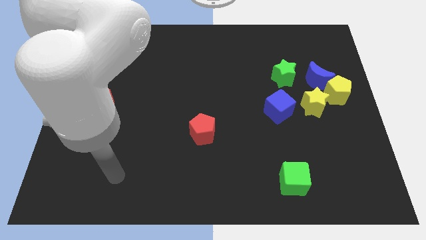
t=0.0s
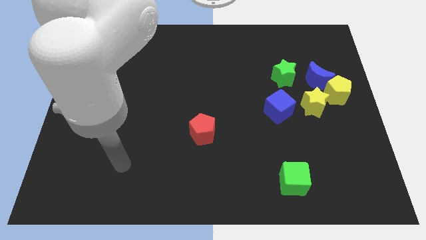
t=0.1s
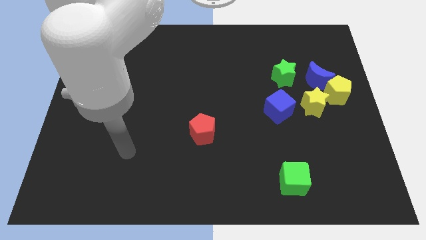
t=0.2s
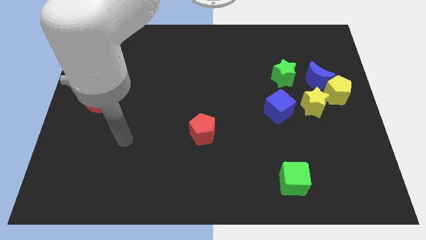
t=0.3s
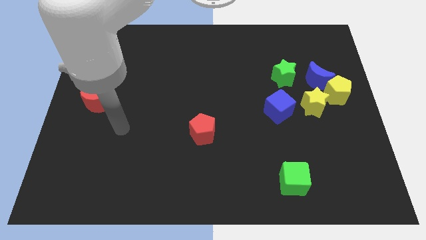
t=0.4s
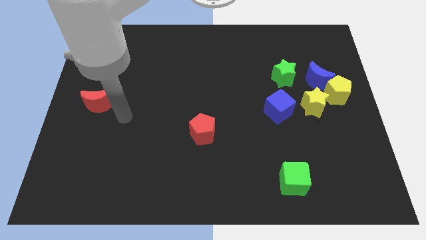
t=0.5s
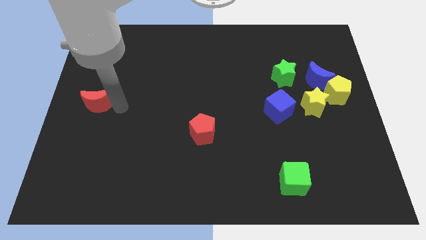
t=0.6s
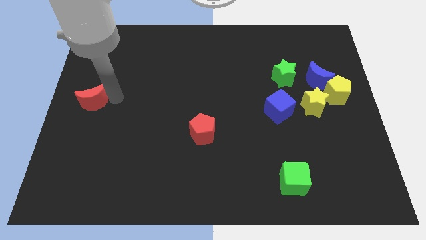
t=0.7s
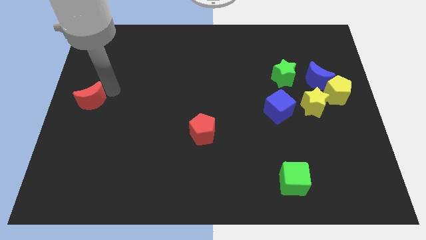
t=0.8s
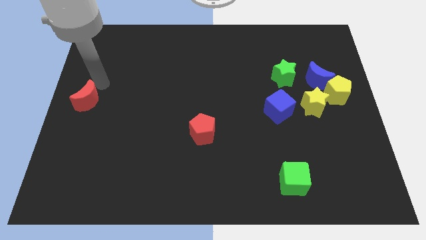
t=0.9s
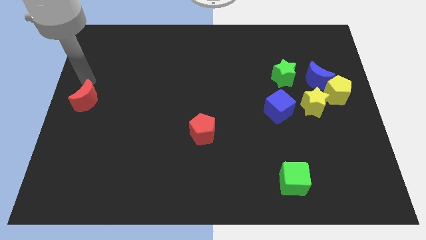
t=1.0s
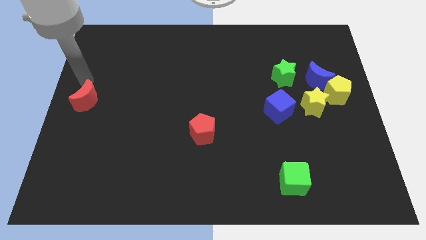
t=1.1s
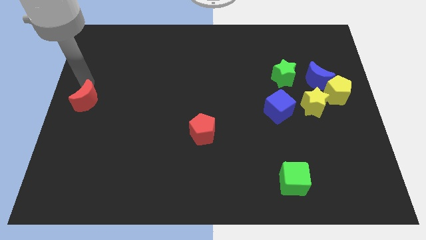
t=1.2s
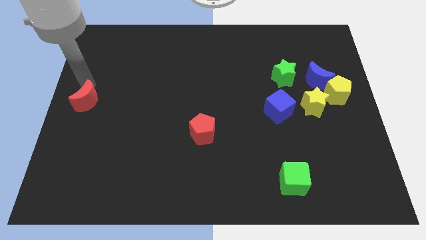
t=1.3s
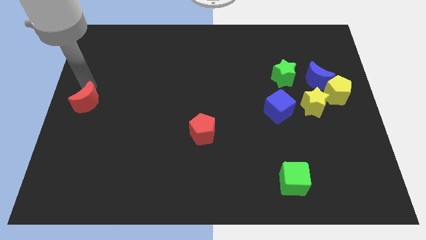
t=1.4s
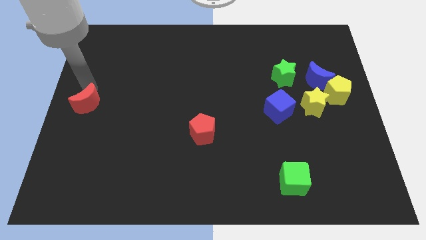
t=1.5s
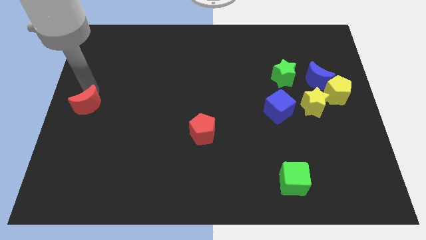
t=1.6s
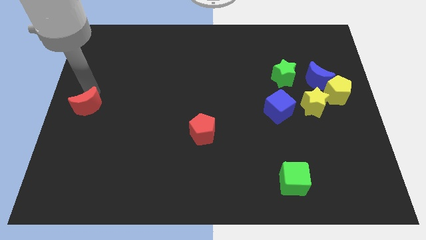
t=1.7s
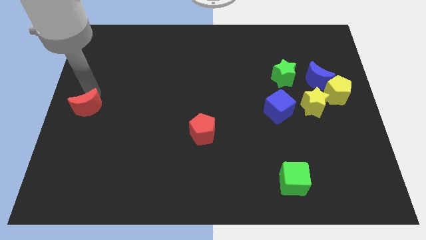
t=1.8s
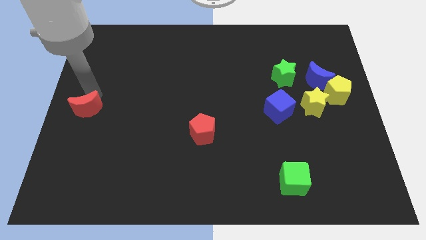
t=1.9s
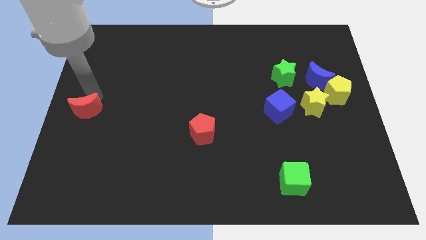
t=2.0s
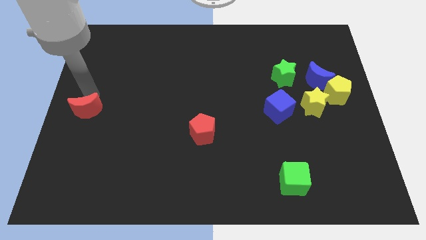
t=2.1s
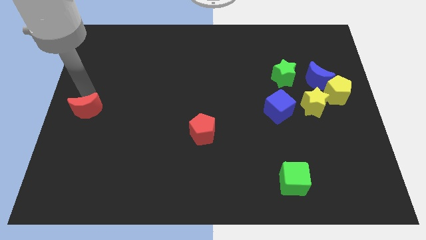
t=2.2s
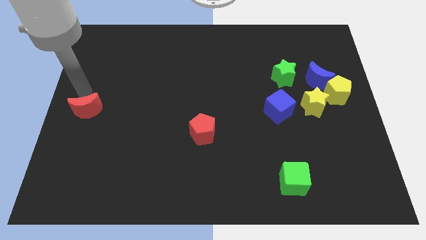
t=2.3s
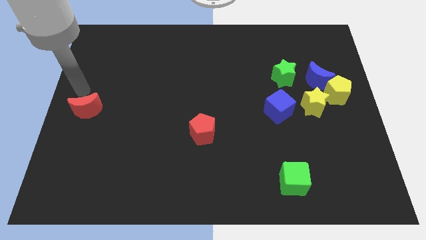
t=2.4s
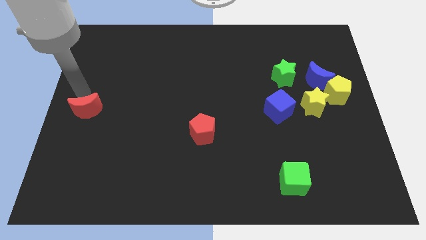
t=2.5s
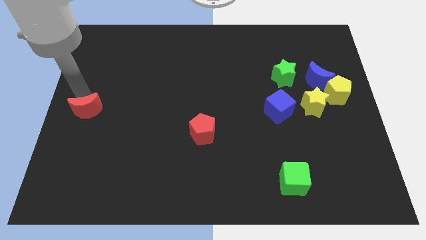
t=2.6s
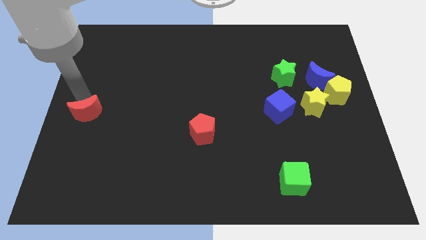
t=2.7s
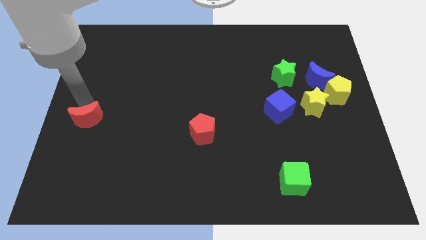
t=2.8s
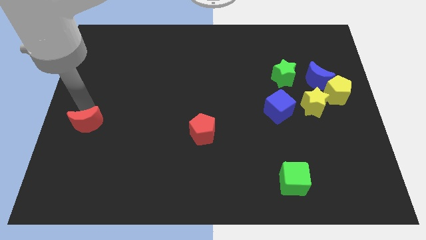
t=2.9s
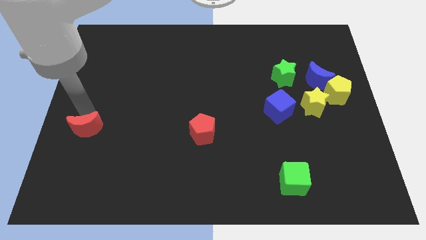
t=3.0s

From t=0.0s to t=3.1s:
slide the red moon downwards a bit

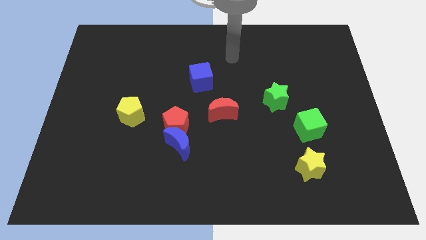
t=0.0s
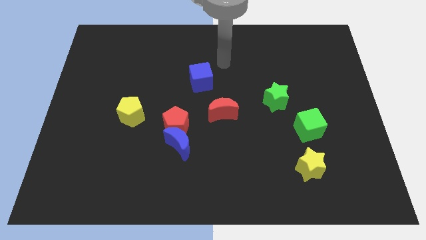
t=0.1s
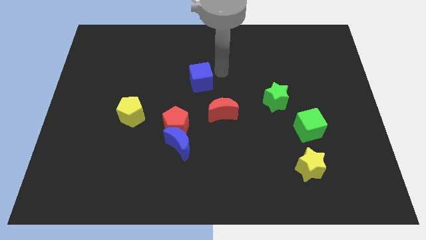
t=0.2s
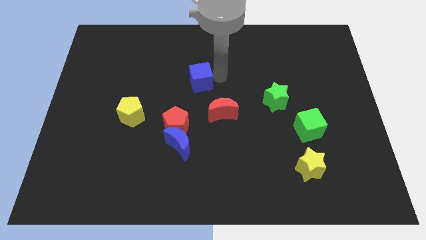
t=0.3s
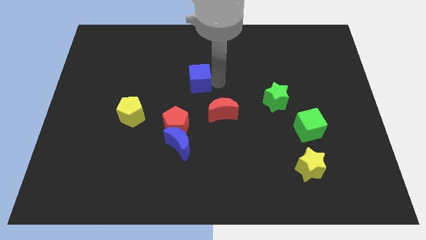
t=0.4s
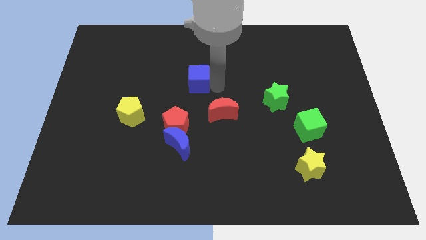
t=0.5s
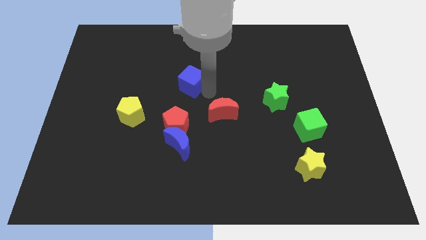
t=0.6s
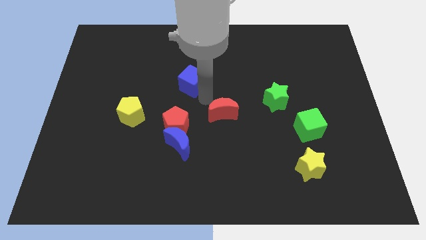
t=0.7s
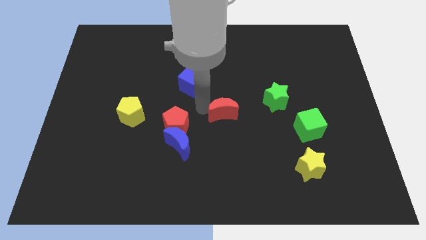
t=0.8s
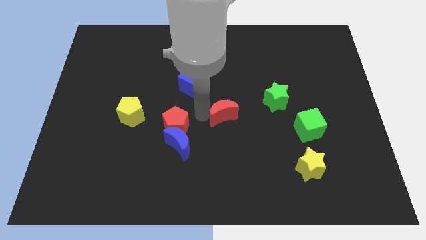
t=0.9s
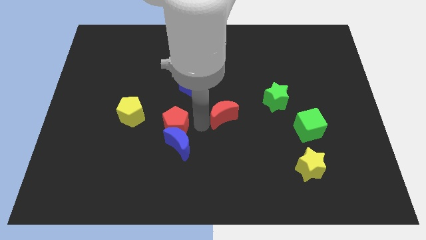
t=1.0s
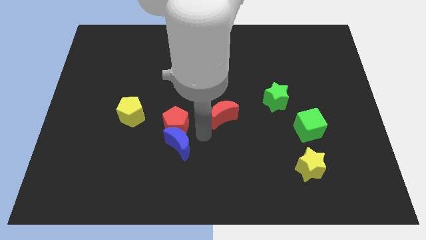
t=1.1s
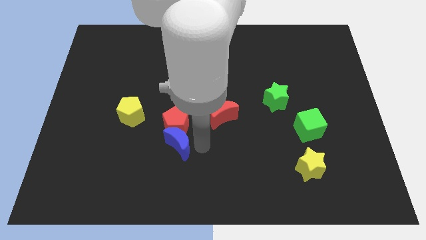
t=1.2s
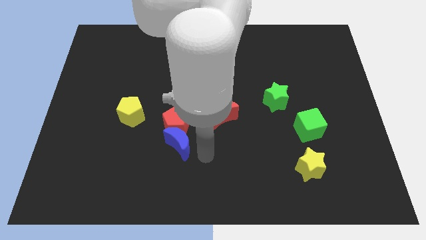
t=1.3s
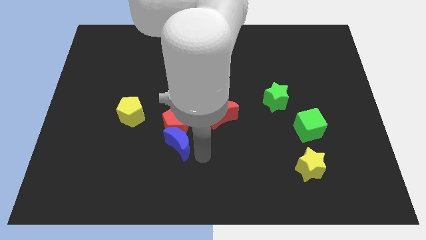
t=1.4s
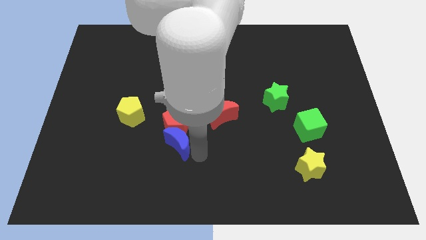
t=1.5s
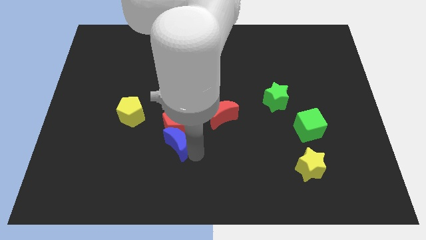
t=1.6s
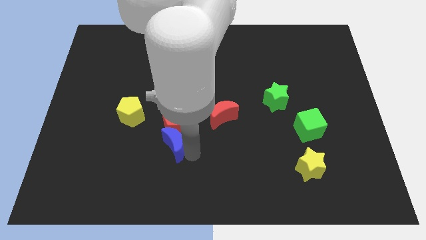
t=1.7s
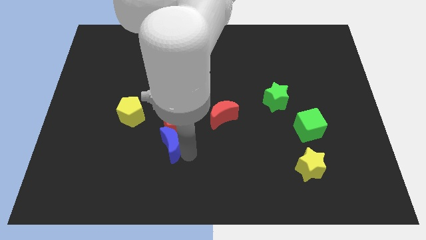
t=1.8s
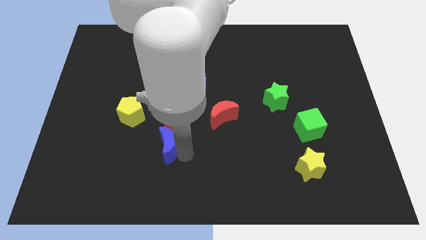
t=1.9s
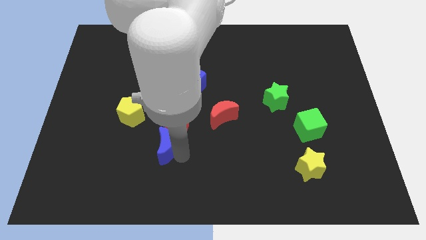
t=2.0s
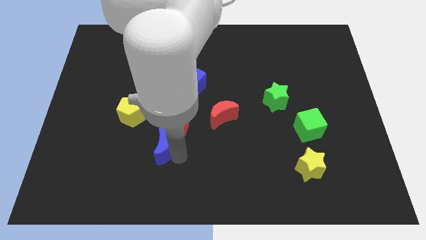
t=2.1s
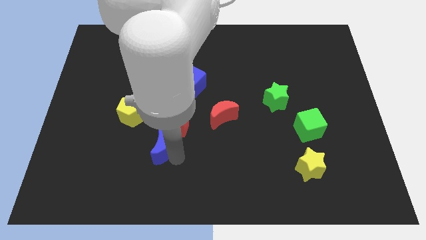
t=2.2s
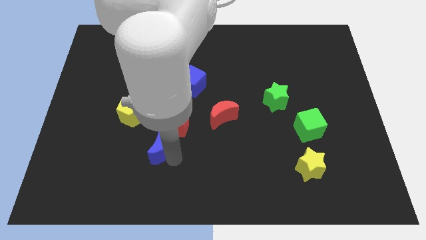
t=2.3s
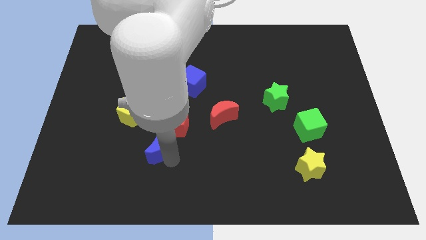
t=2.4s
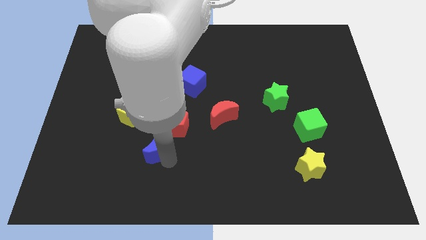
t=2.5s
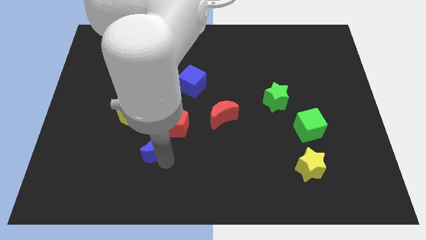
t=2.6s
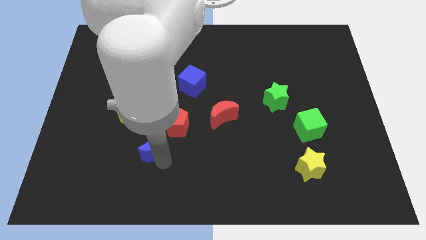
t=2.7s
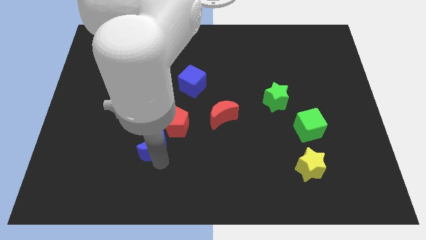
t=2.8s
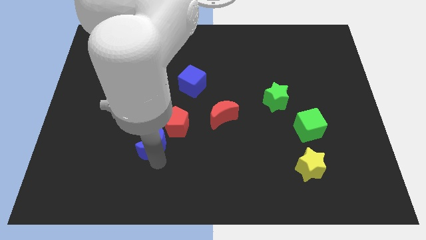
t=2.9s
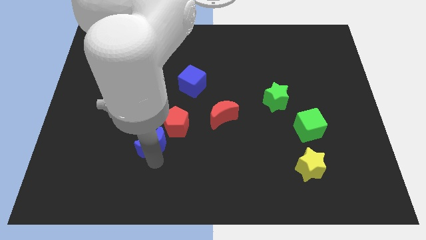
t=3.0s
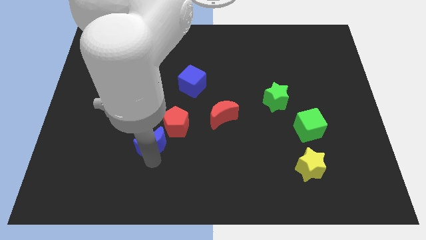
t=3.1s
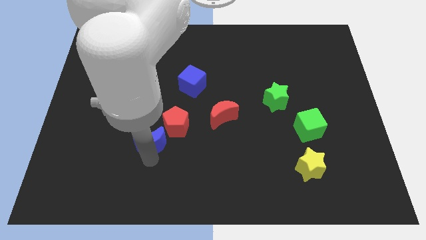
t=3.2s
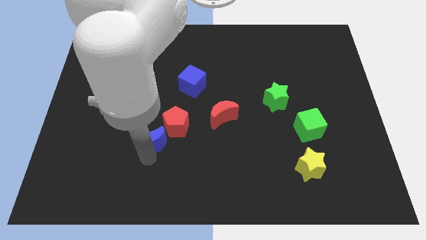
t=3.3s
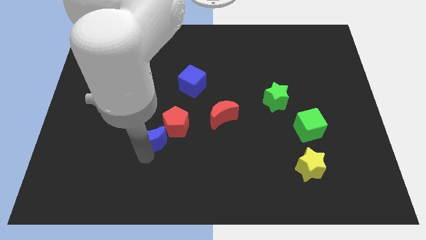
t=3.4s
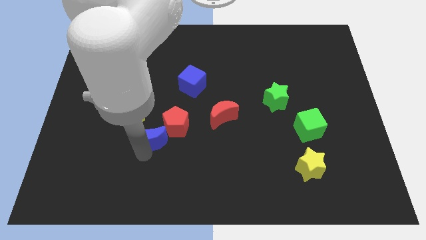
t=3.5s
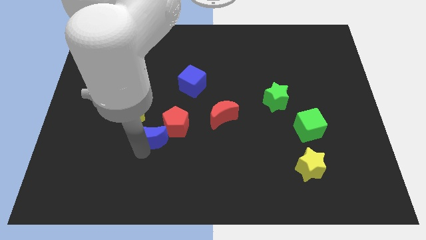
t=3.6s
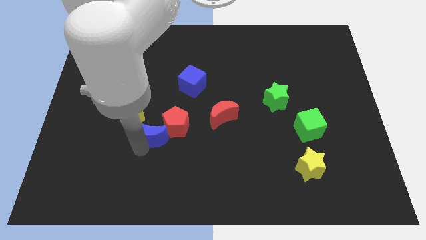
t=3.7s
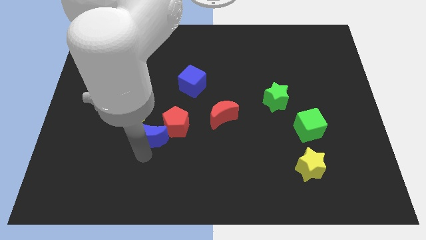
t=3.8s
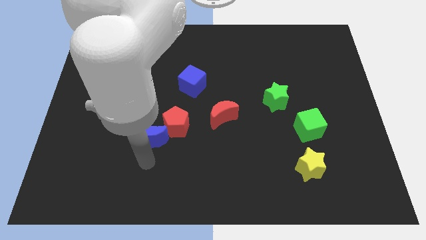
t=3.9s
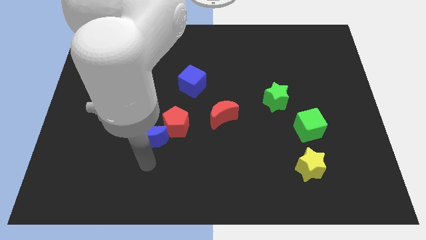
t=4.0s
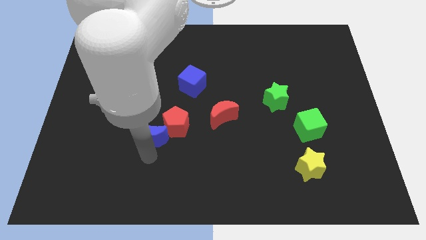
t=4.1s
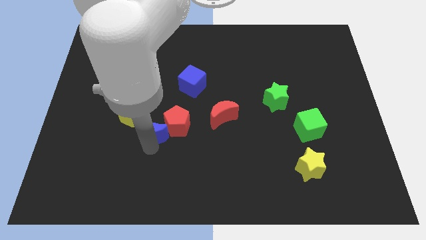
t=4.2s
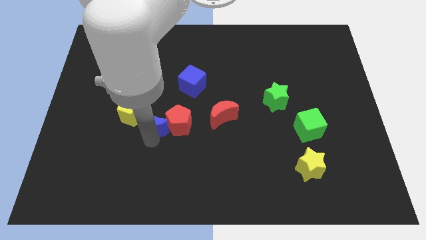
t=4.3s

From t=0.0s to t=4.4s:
slightly push the blue moon diagonally upwards and left

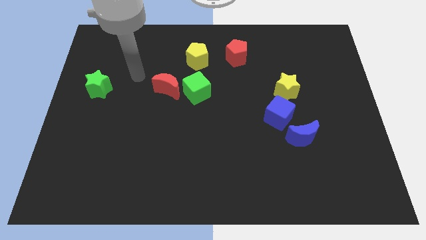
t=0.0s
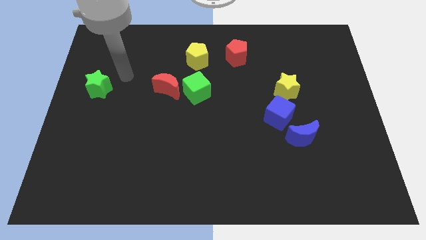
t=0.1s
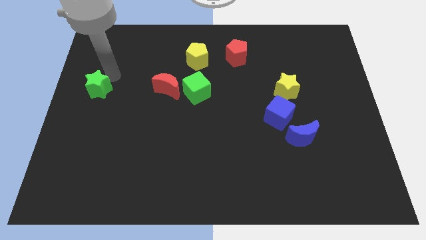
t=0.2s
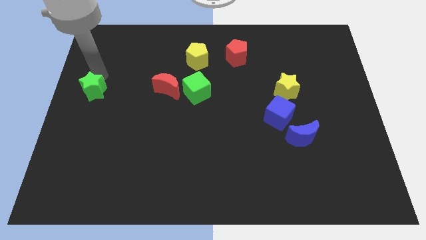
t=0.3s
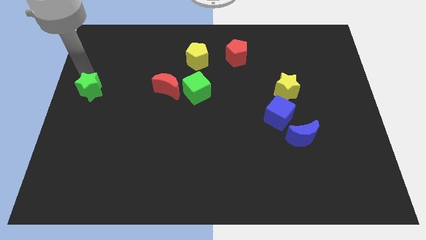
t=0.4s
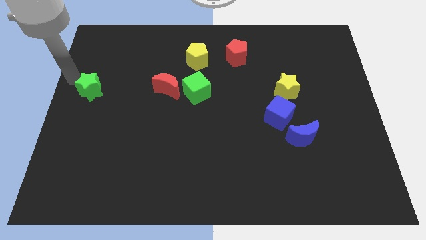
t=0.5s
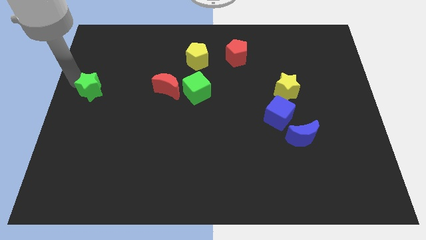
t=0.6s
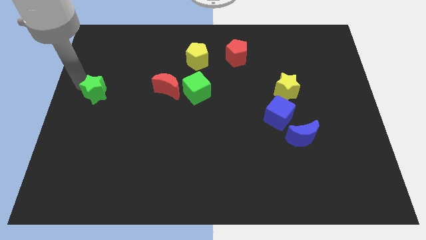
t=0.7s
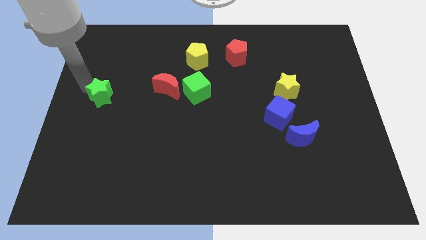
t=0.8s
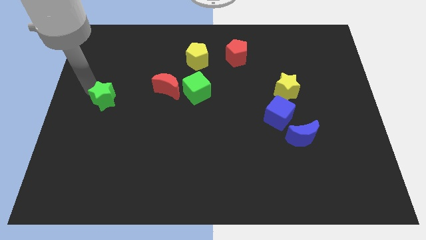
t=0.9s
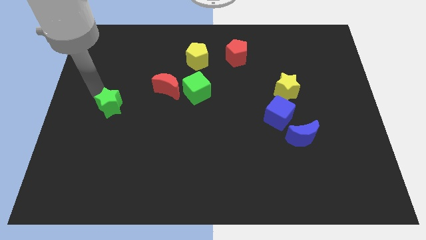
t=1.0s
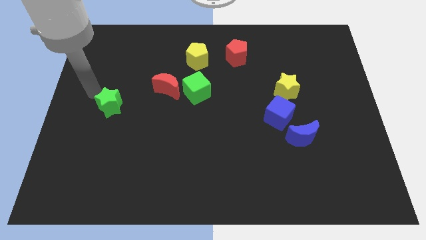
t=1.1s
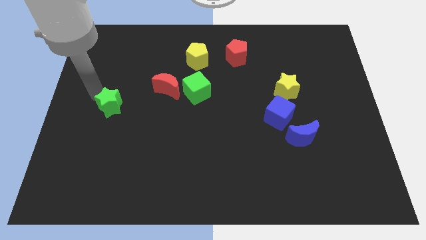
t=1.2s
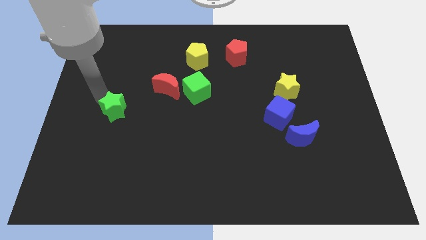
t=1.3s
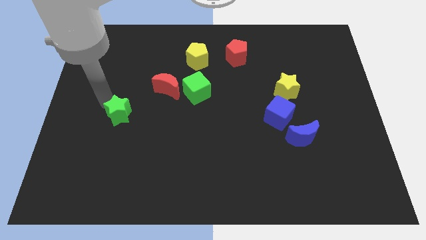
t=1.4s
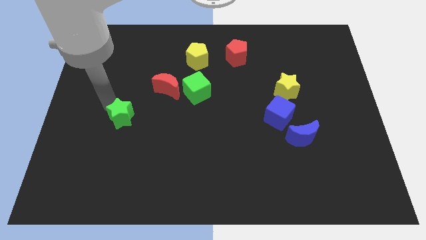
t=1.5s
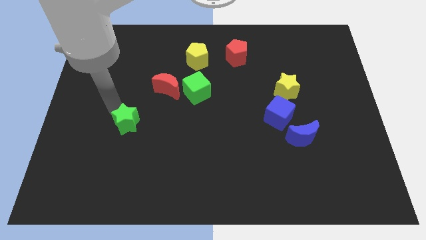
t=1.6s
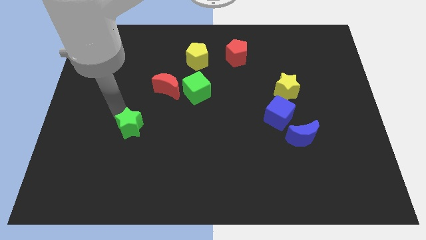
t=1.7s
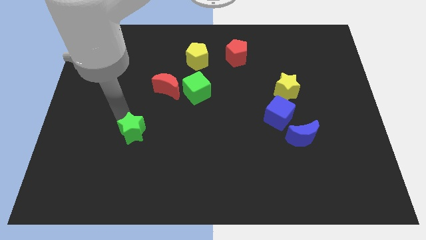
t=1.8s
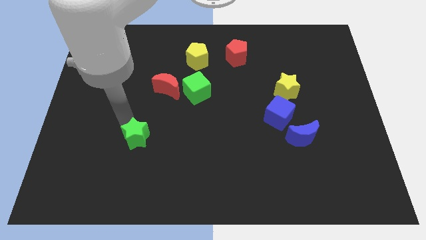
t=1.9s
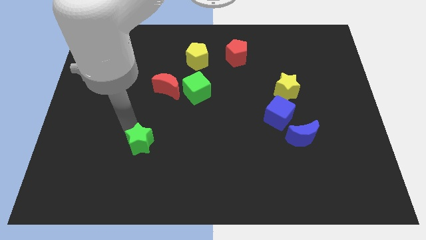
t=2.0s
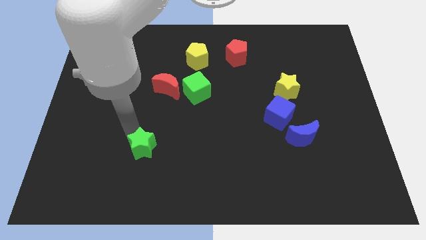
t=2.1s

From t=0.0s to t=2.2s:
move the green star diagonally down and right
